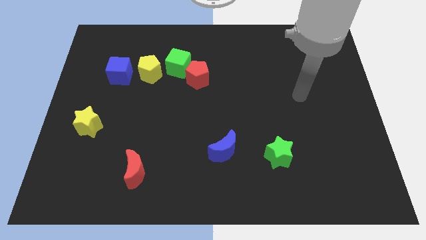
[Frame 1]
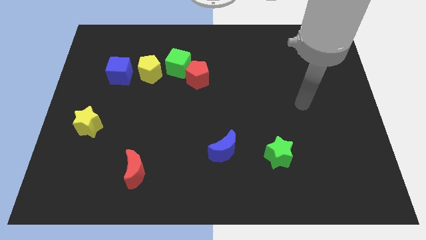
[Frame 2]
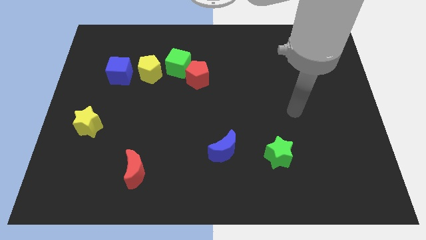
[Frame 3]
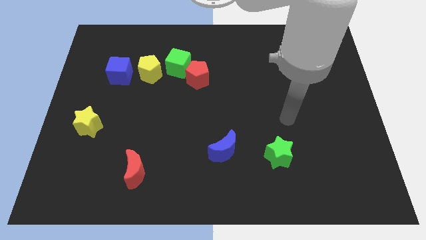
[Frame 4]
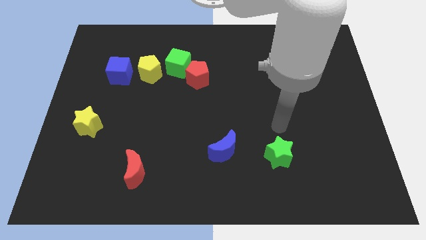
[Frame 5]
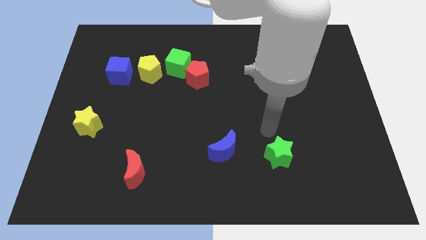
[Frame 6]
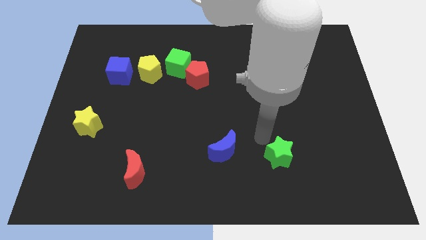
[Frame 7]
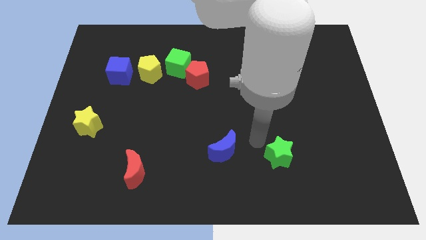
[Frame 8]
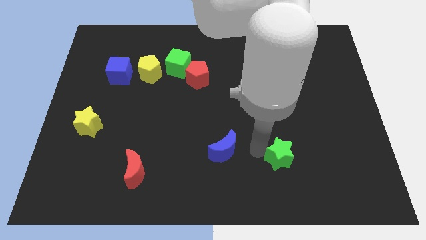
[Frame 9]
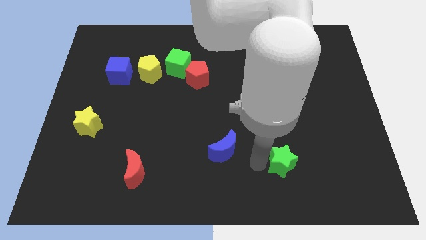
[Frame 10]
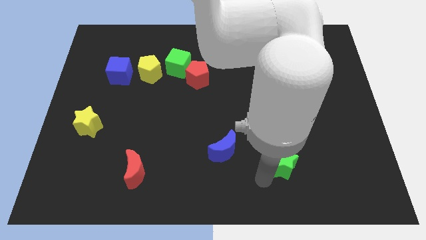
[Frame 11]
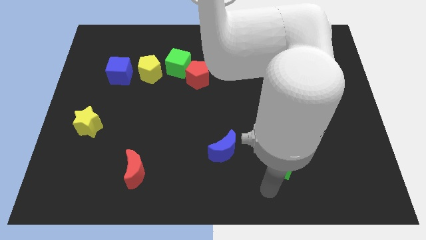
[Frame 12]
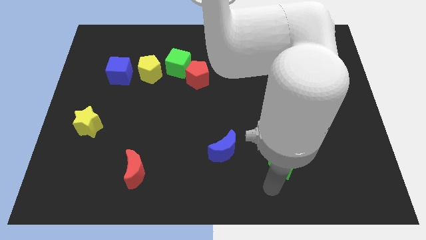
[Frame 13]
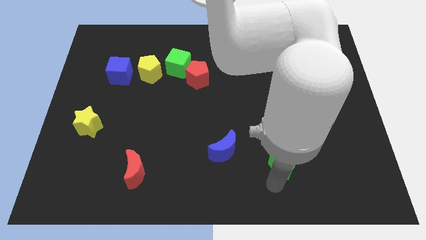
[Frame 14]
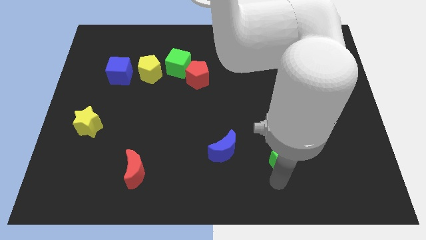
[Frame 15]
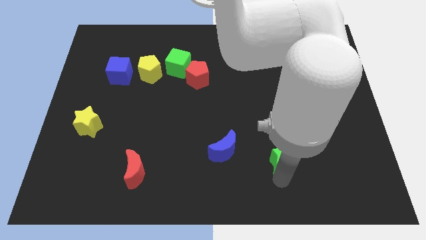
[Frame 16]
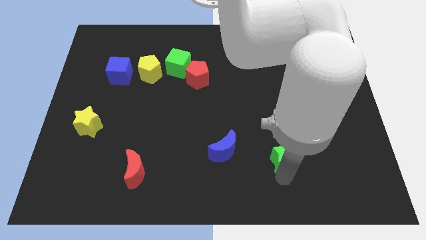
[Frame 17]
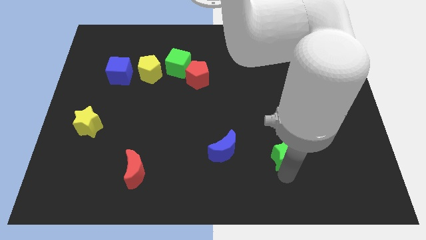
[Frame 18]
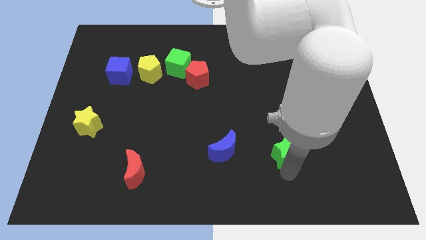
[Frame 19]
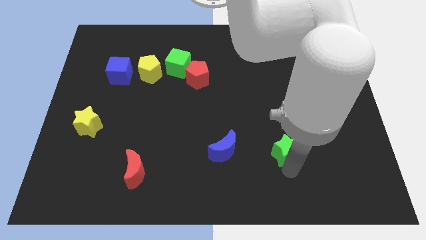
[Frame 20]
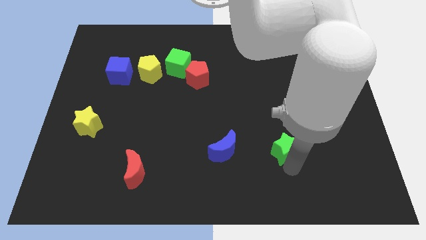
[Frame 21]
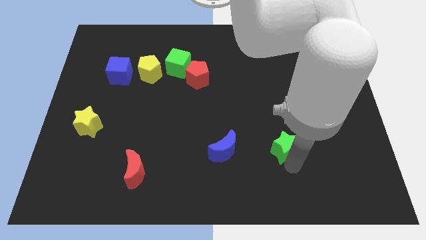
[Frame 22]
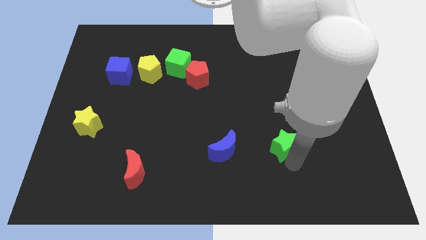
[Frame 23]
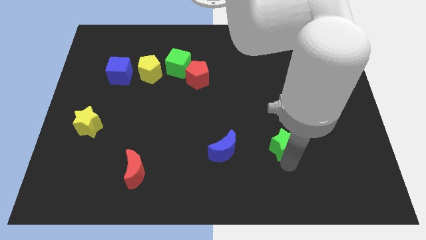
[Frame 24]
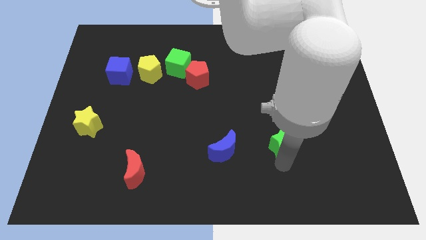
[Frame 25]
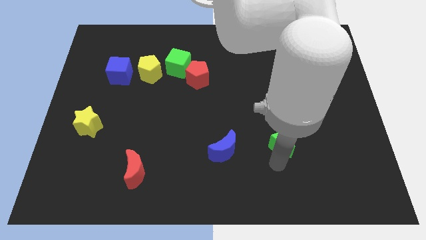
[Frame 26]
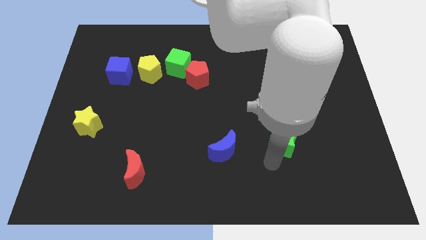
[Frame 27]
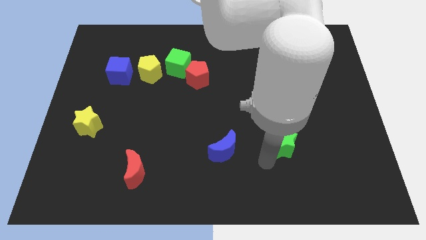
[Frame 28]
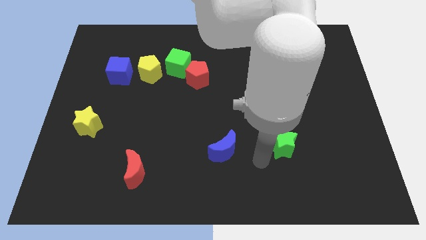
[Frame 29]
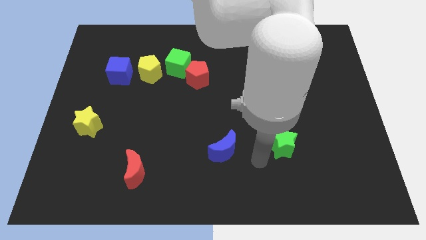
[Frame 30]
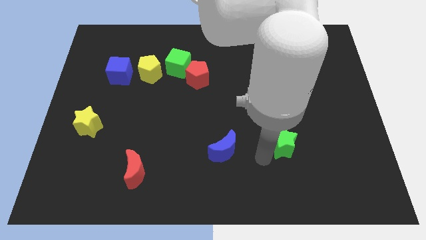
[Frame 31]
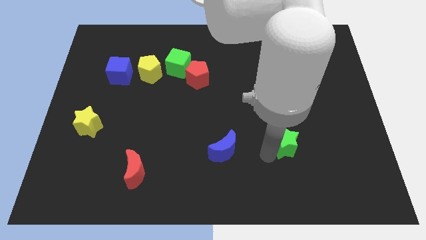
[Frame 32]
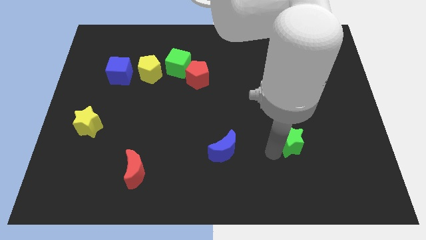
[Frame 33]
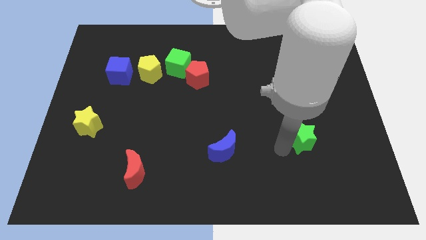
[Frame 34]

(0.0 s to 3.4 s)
push the green star somewhat up and then right

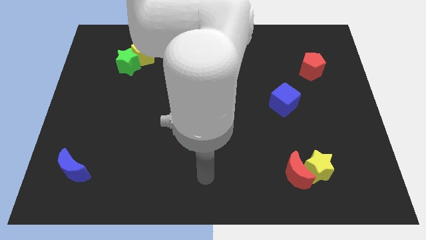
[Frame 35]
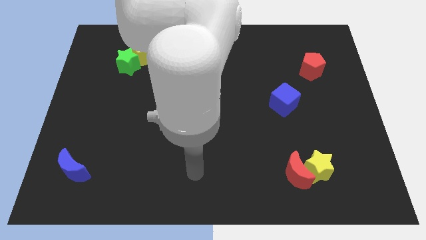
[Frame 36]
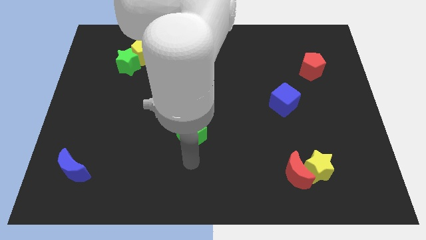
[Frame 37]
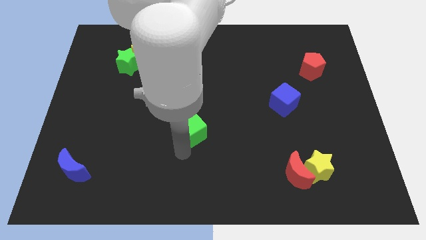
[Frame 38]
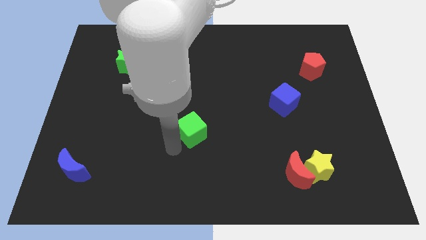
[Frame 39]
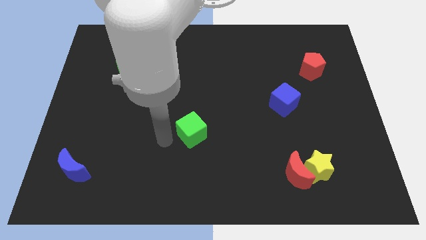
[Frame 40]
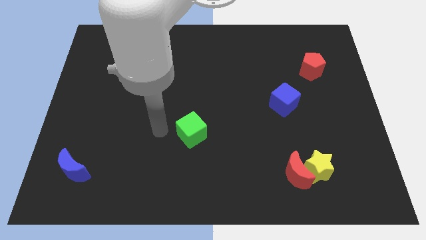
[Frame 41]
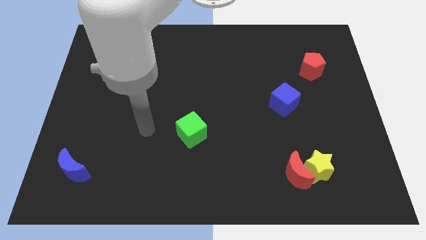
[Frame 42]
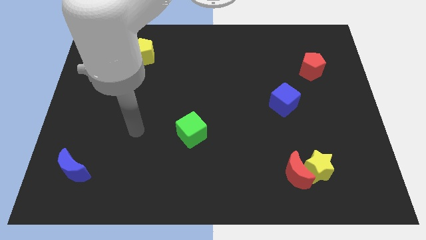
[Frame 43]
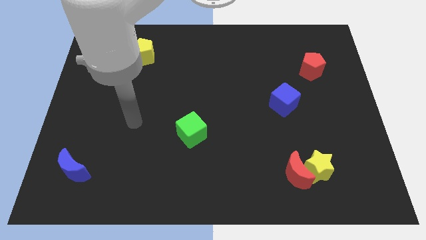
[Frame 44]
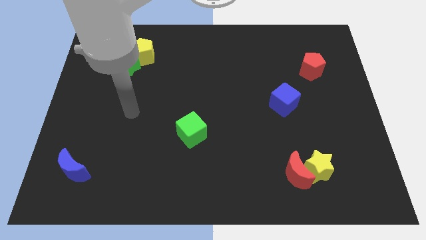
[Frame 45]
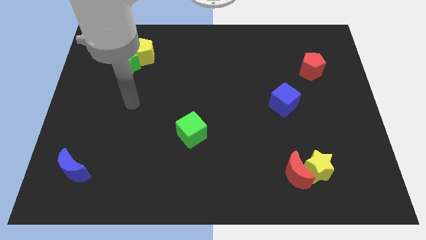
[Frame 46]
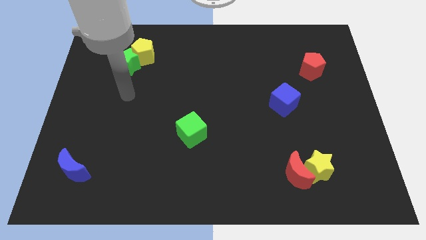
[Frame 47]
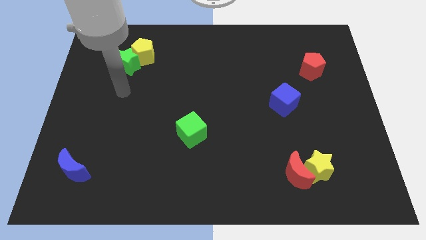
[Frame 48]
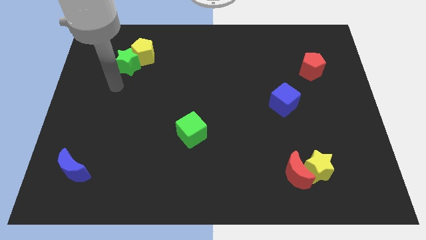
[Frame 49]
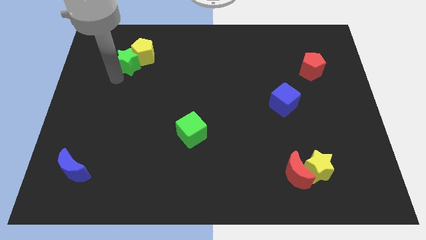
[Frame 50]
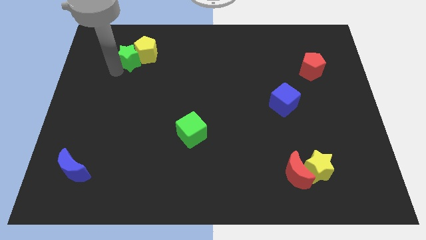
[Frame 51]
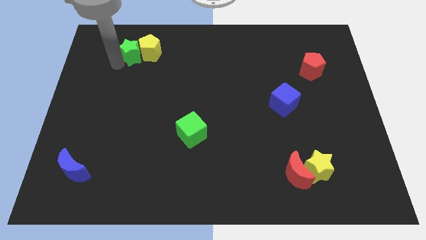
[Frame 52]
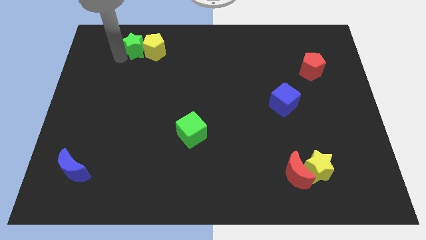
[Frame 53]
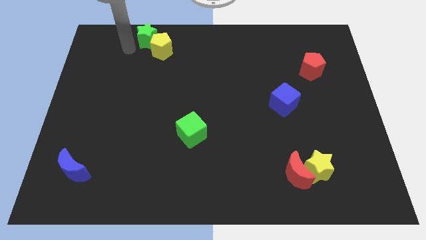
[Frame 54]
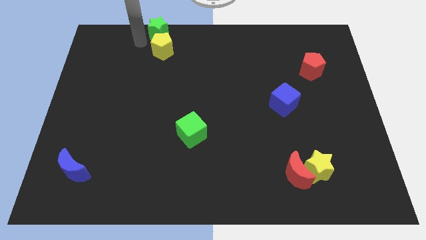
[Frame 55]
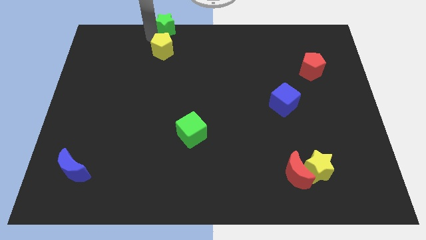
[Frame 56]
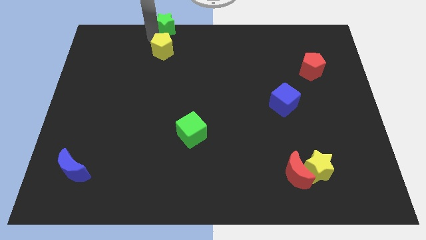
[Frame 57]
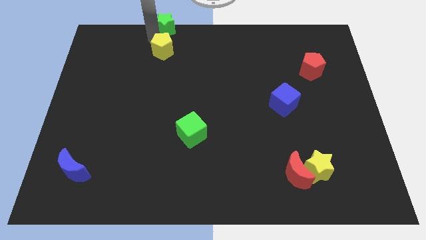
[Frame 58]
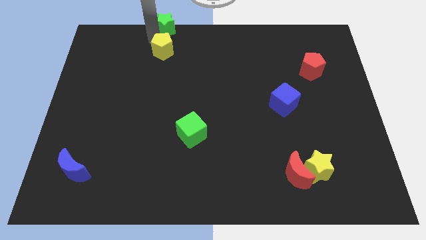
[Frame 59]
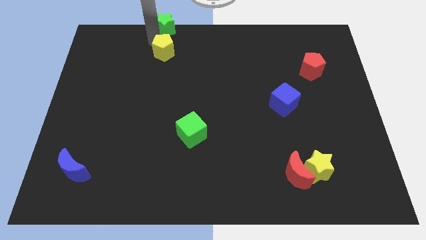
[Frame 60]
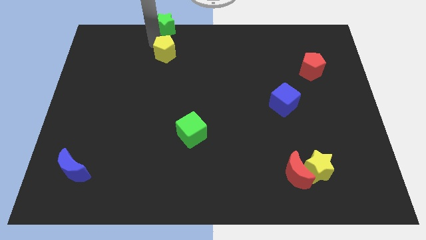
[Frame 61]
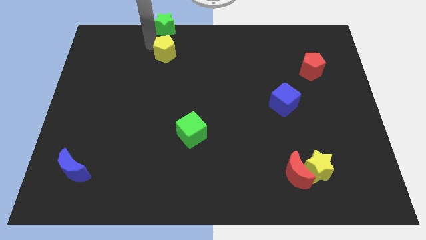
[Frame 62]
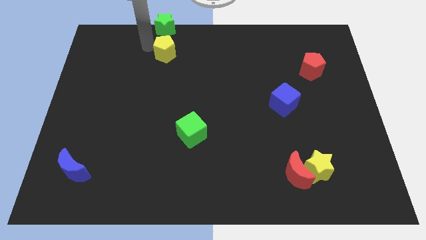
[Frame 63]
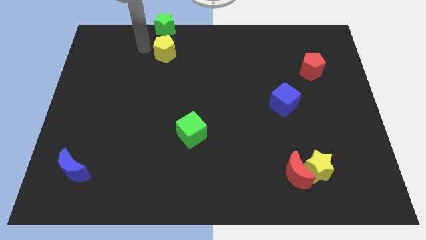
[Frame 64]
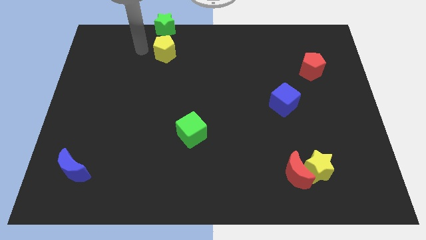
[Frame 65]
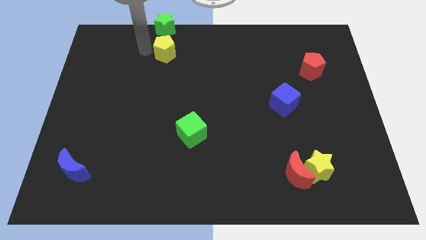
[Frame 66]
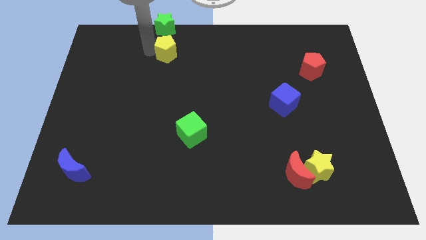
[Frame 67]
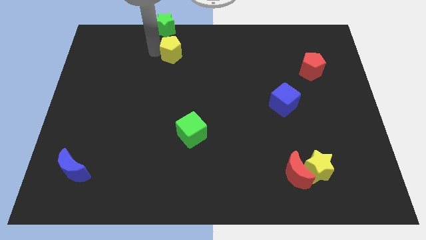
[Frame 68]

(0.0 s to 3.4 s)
move the yellow pentagon a bit right

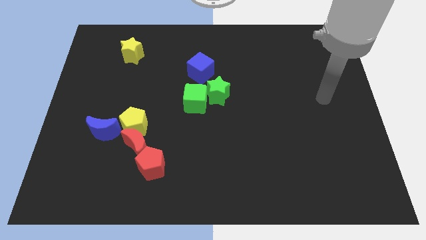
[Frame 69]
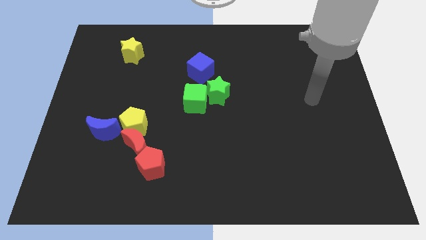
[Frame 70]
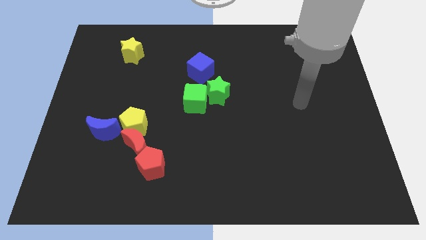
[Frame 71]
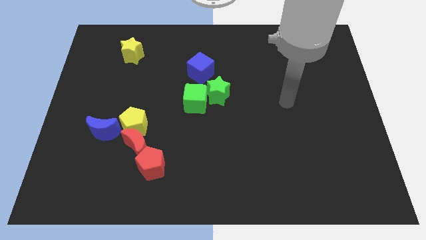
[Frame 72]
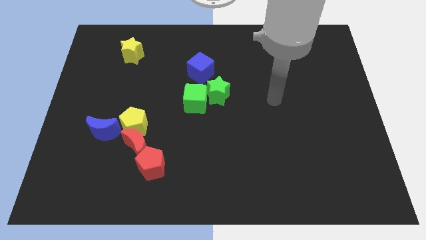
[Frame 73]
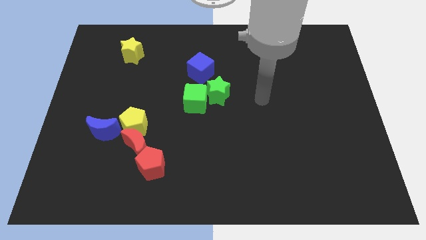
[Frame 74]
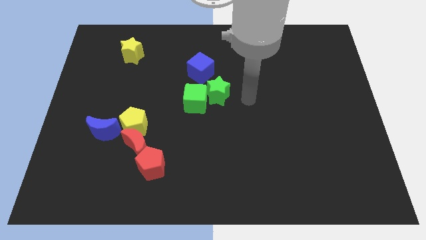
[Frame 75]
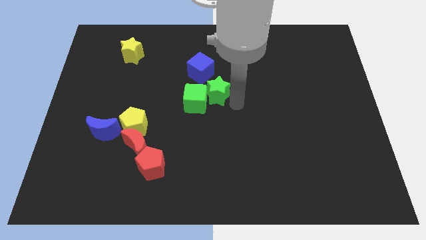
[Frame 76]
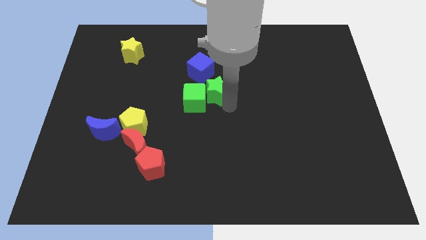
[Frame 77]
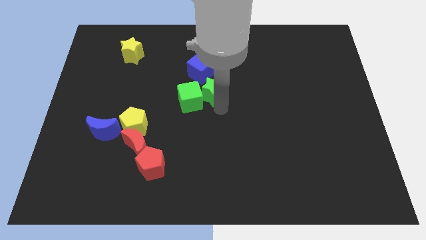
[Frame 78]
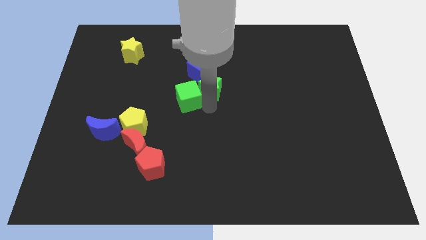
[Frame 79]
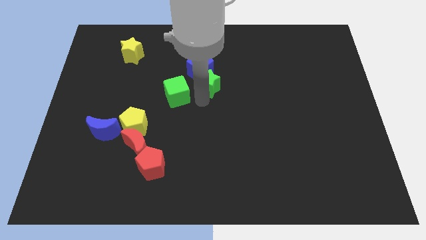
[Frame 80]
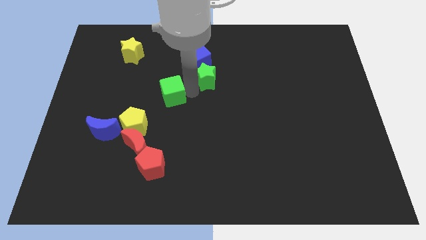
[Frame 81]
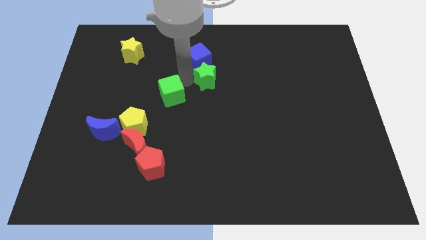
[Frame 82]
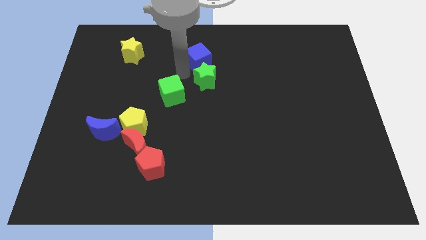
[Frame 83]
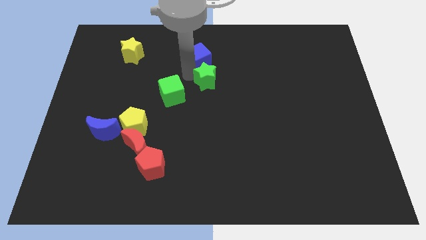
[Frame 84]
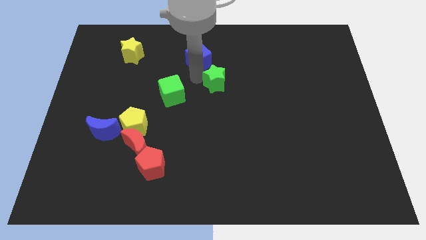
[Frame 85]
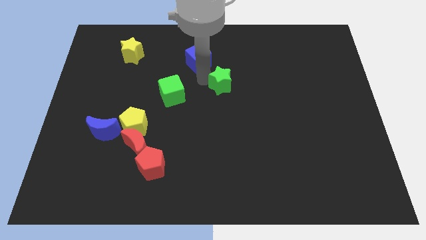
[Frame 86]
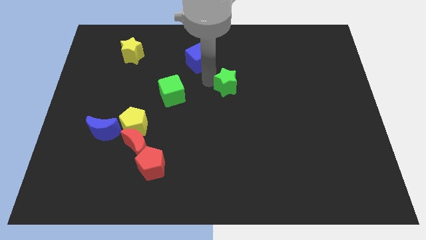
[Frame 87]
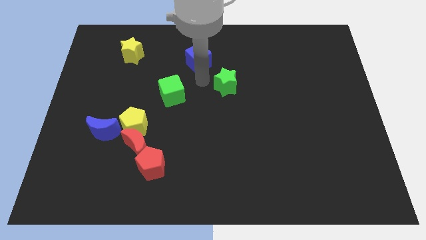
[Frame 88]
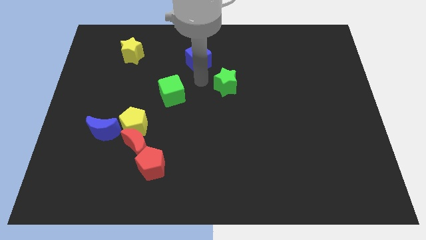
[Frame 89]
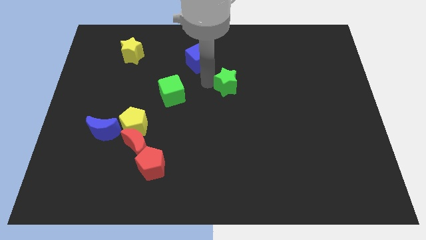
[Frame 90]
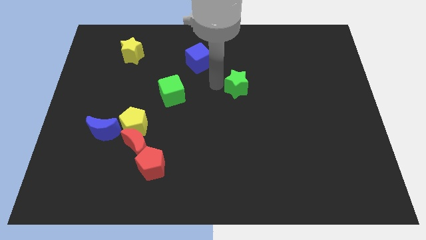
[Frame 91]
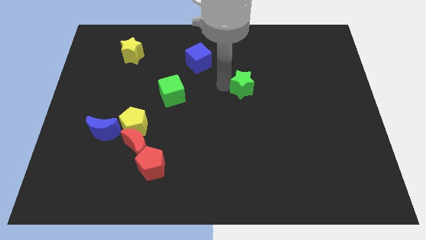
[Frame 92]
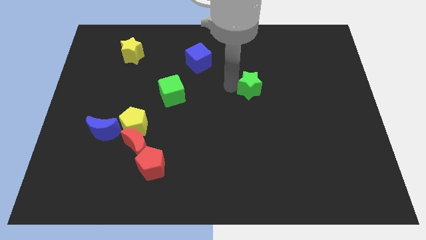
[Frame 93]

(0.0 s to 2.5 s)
push the green star somewhat to the right
